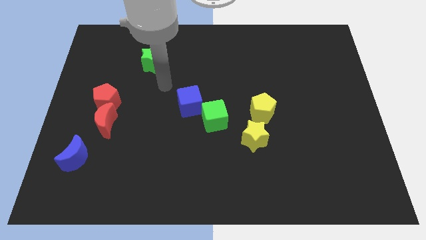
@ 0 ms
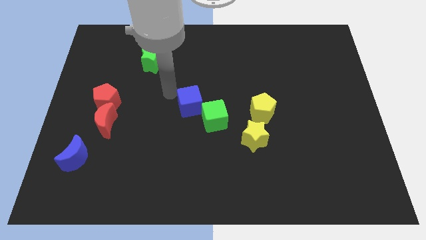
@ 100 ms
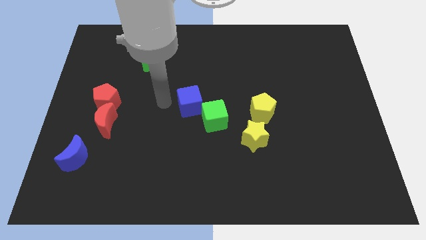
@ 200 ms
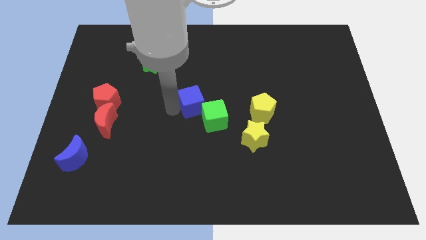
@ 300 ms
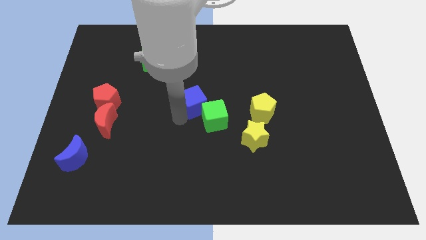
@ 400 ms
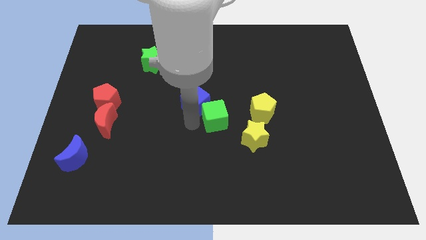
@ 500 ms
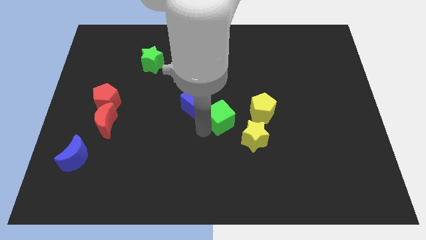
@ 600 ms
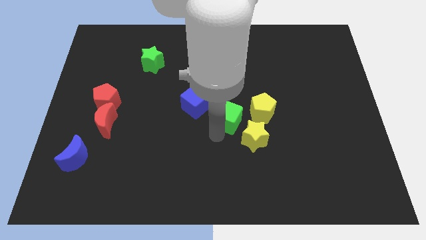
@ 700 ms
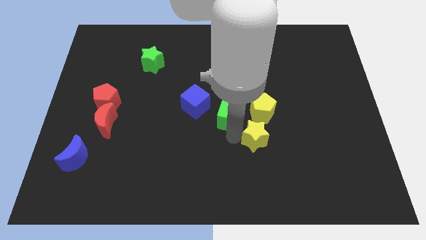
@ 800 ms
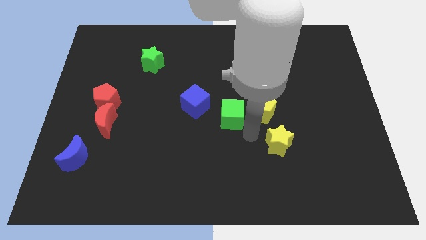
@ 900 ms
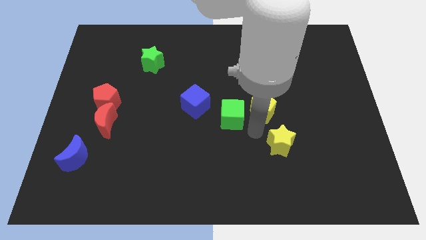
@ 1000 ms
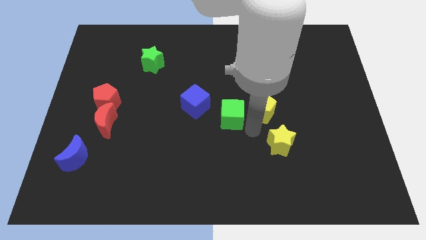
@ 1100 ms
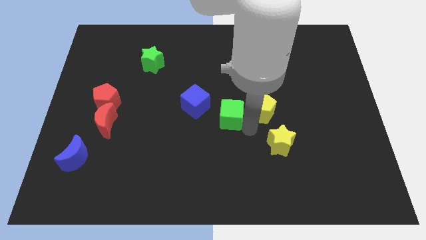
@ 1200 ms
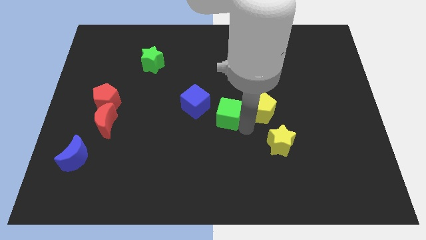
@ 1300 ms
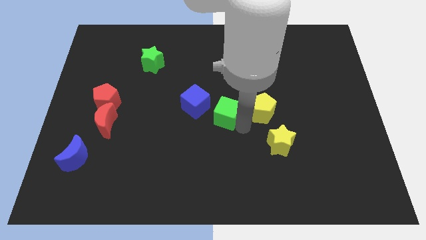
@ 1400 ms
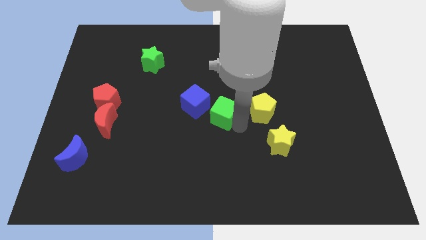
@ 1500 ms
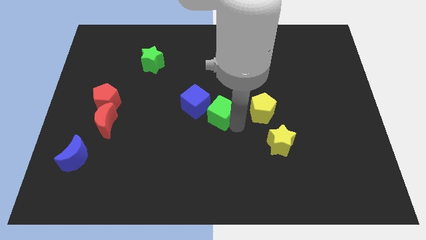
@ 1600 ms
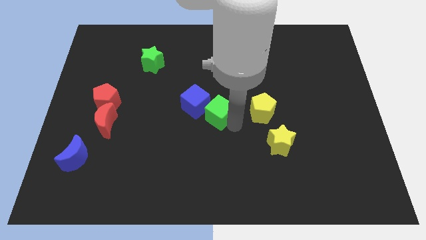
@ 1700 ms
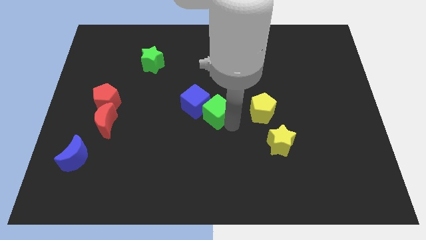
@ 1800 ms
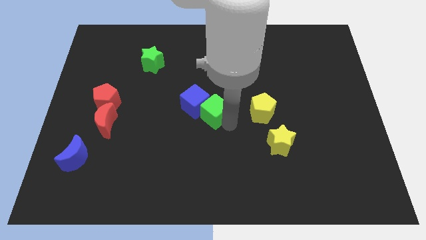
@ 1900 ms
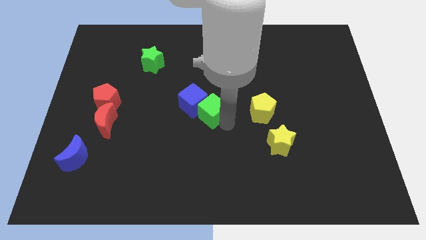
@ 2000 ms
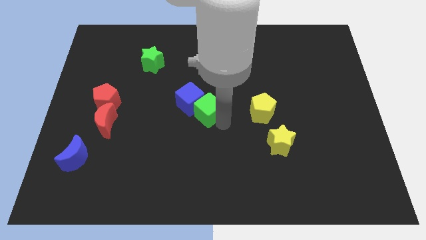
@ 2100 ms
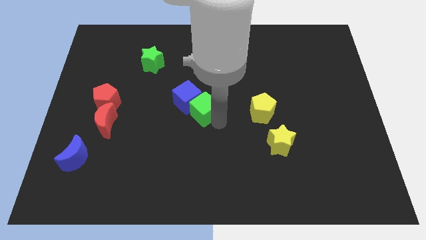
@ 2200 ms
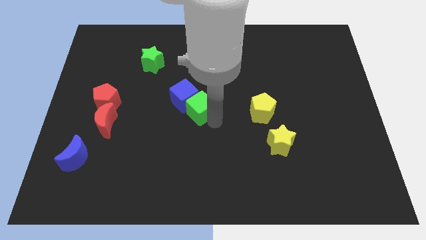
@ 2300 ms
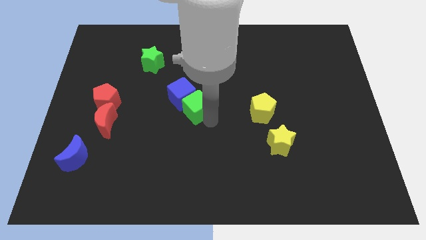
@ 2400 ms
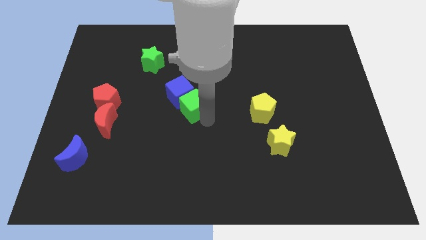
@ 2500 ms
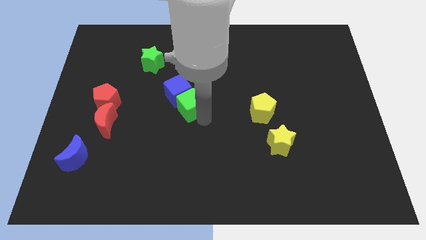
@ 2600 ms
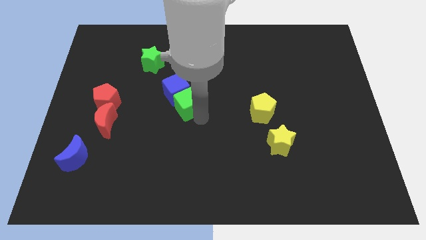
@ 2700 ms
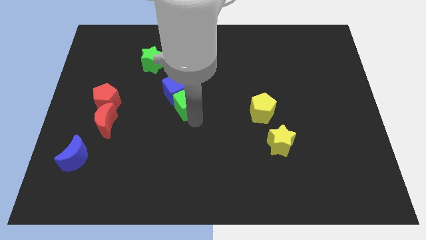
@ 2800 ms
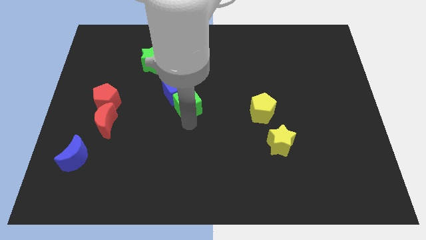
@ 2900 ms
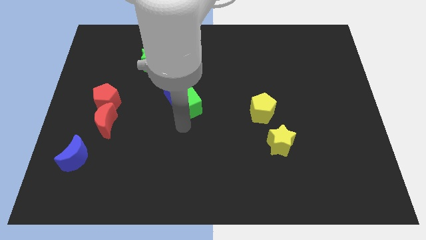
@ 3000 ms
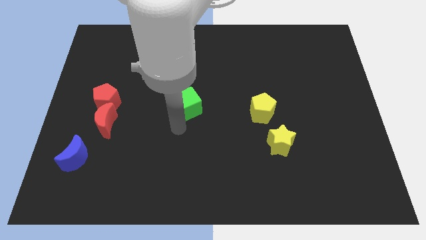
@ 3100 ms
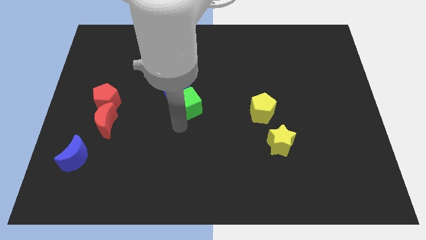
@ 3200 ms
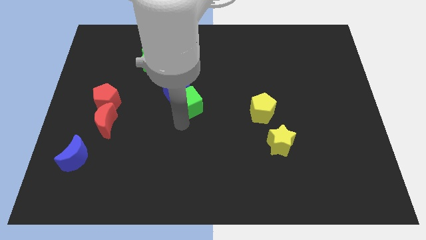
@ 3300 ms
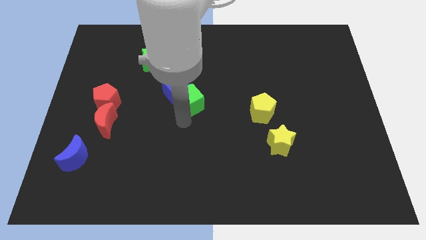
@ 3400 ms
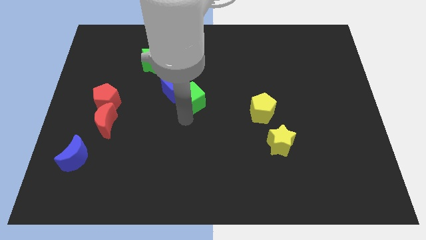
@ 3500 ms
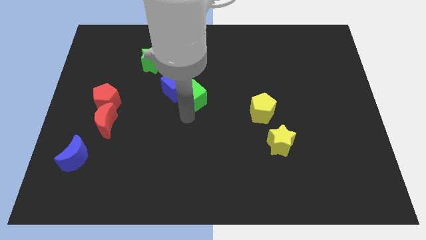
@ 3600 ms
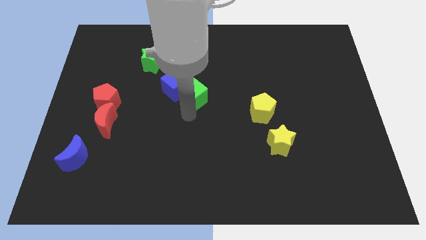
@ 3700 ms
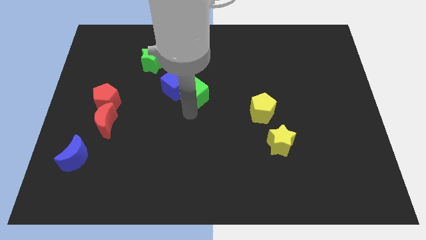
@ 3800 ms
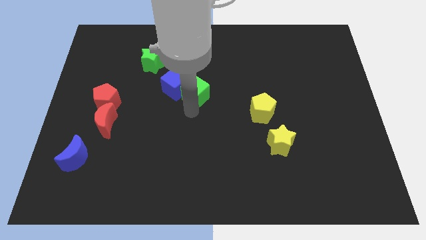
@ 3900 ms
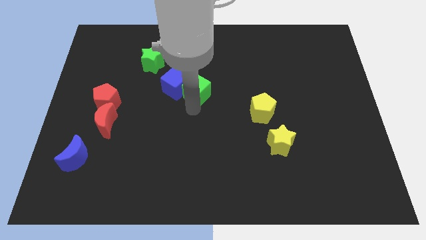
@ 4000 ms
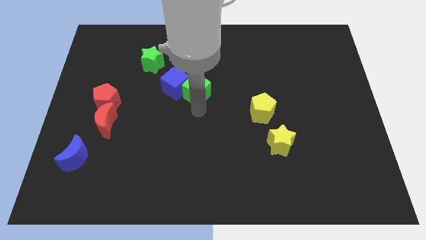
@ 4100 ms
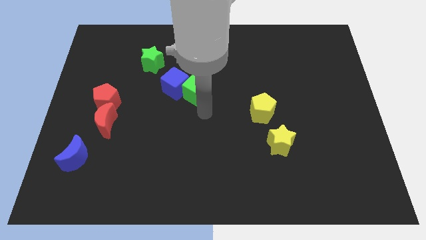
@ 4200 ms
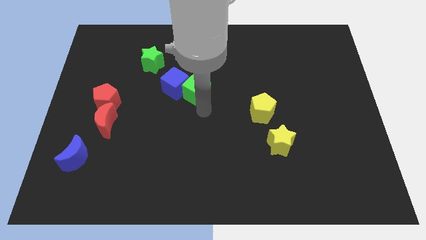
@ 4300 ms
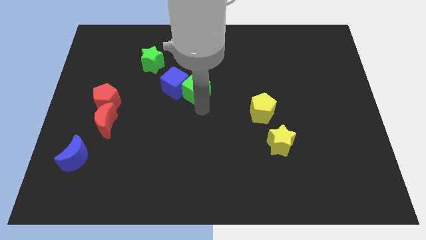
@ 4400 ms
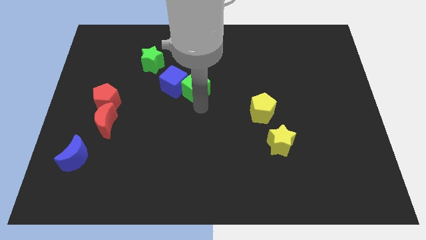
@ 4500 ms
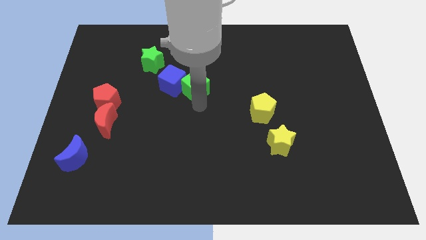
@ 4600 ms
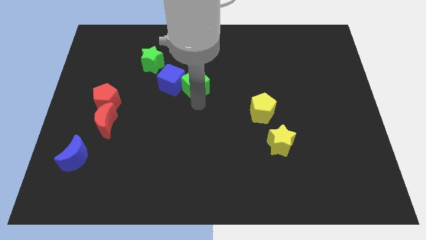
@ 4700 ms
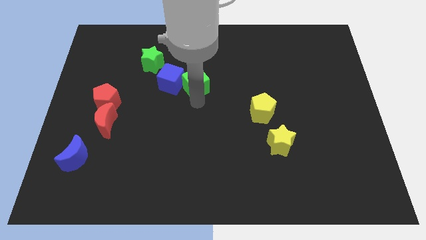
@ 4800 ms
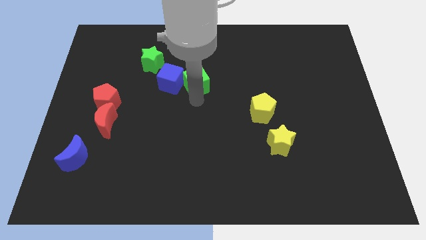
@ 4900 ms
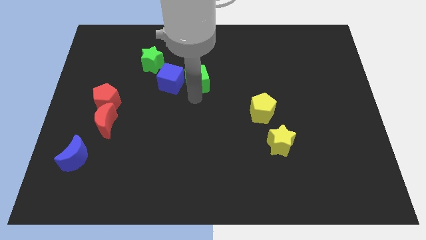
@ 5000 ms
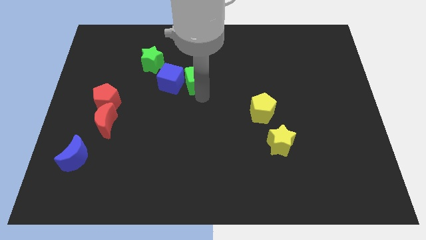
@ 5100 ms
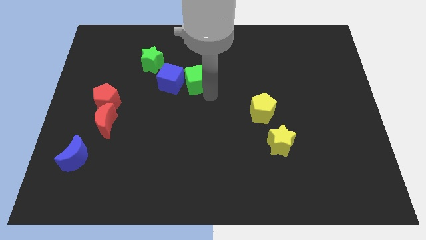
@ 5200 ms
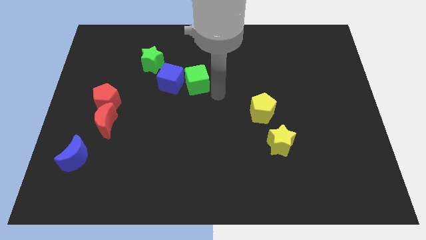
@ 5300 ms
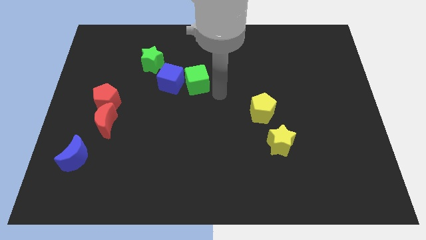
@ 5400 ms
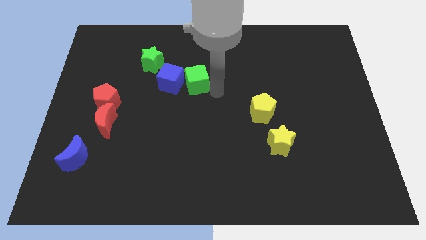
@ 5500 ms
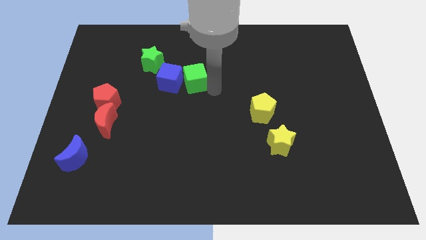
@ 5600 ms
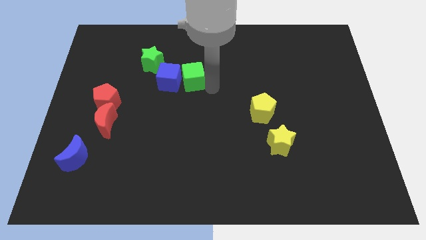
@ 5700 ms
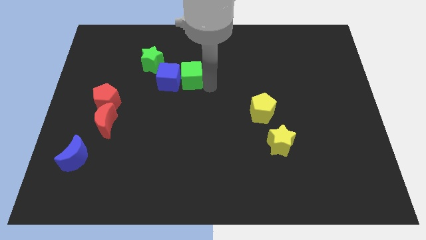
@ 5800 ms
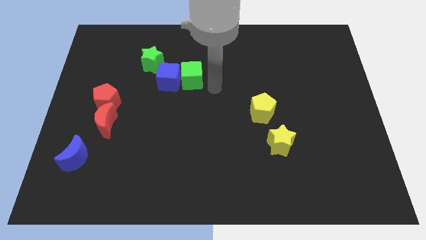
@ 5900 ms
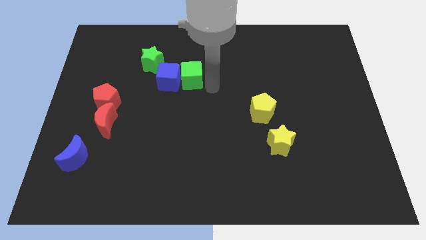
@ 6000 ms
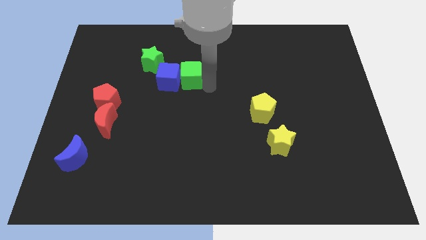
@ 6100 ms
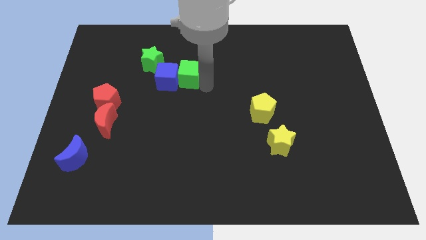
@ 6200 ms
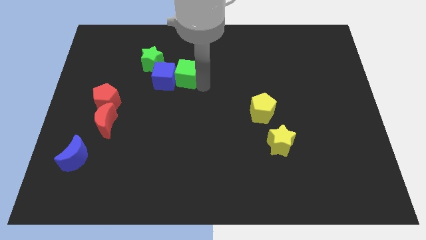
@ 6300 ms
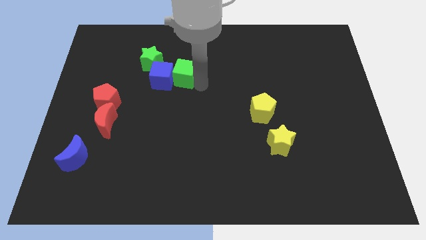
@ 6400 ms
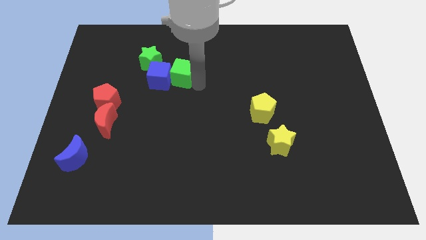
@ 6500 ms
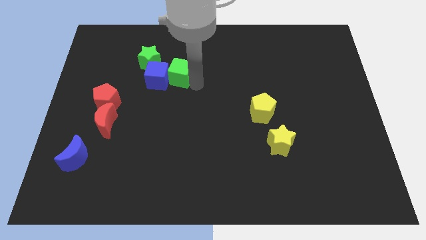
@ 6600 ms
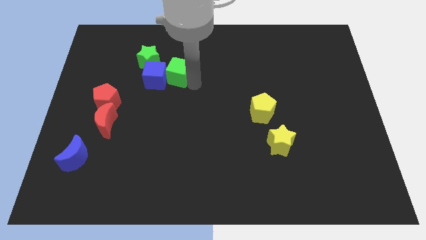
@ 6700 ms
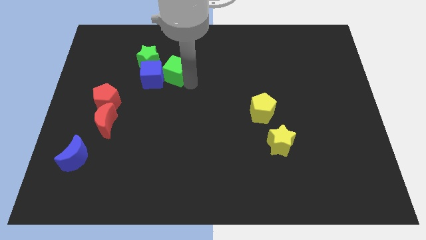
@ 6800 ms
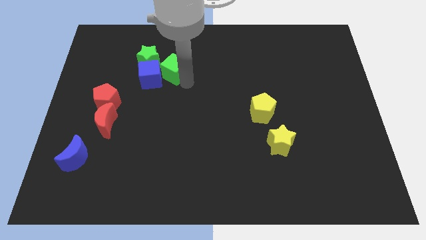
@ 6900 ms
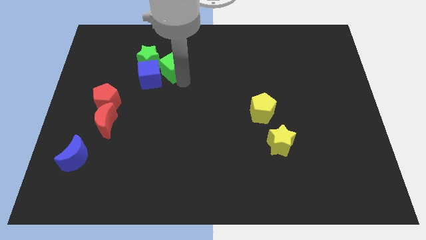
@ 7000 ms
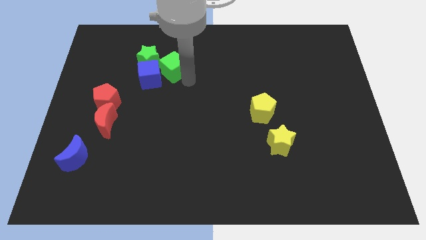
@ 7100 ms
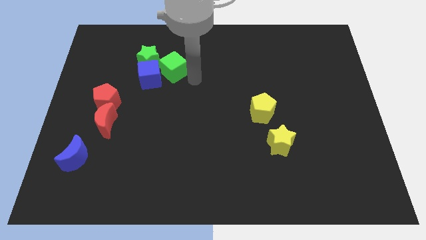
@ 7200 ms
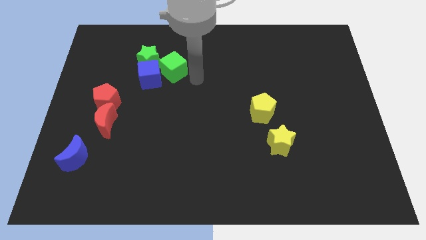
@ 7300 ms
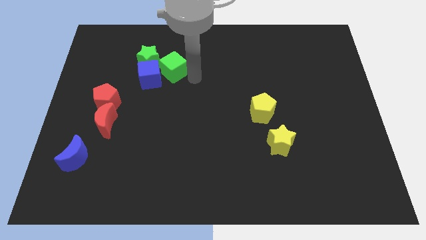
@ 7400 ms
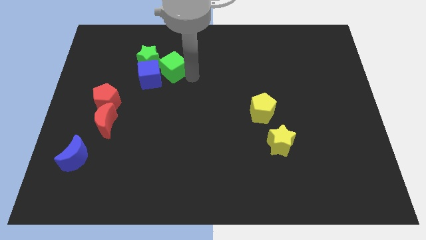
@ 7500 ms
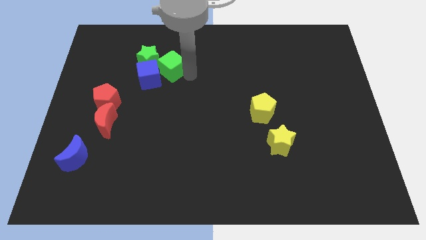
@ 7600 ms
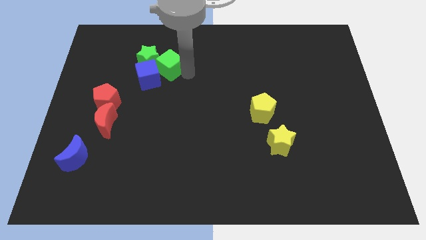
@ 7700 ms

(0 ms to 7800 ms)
slide the green cube close to the green star

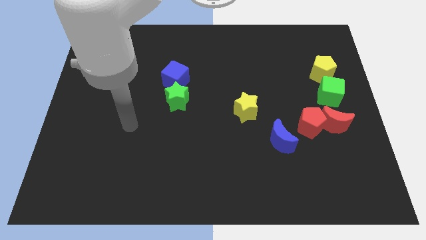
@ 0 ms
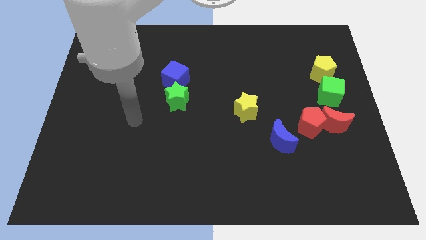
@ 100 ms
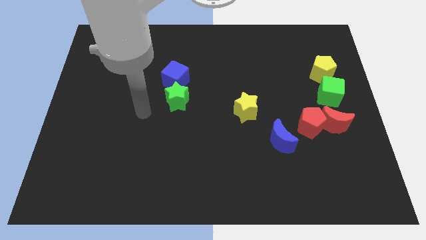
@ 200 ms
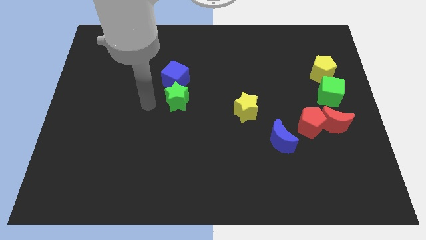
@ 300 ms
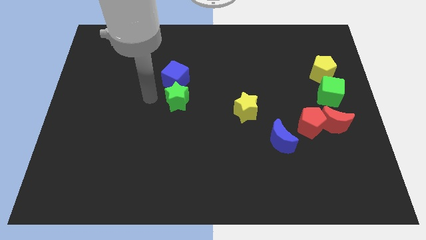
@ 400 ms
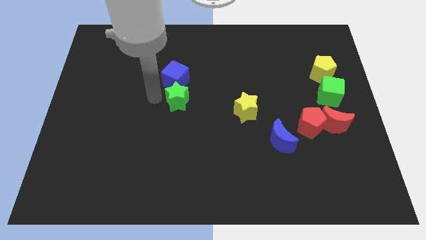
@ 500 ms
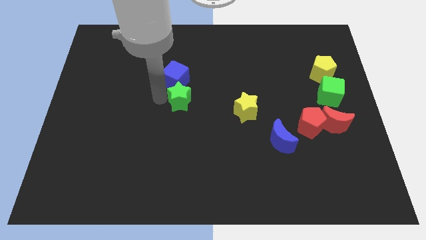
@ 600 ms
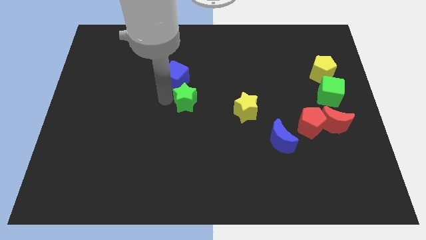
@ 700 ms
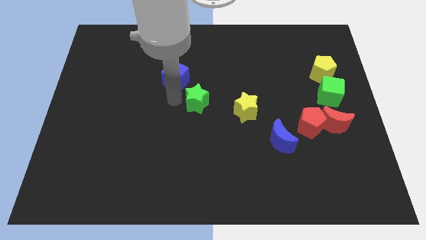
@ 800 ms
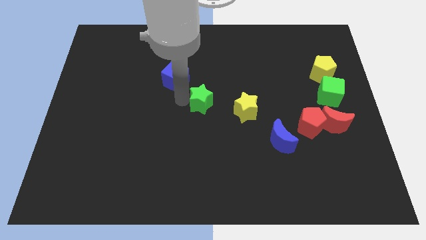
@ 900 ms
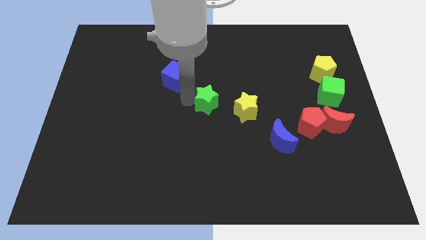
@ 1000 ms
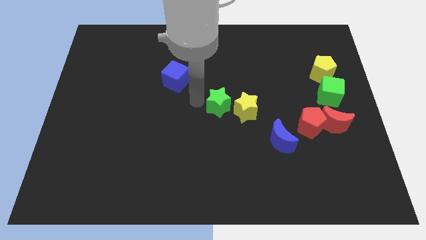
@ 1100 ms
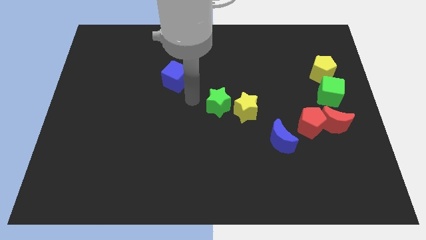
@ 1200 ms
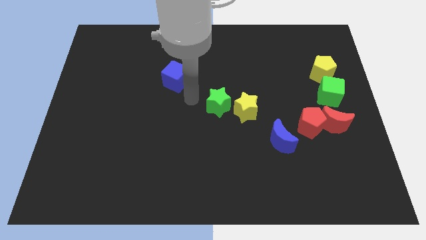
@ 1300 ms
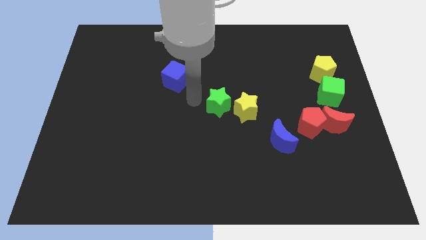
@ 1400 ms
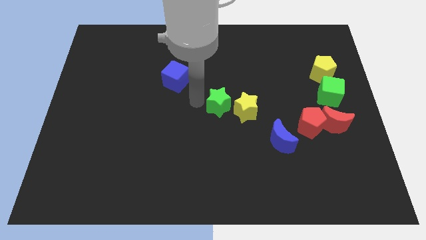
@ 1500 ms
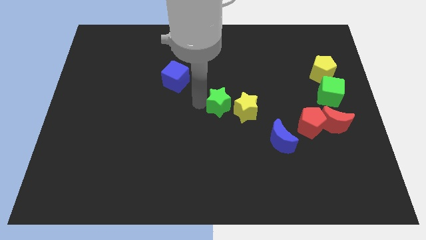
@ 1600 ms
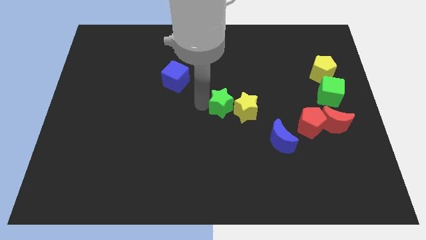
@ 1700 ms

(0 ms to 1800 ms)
push the green star to the yellow star
